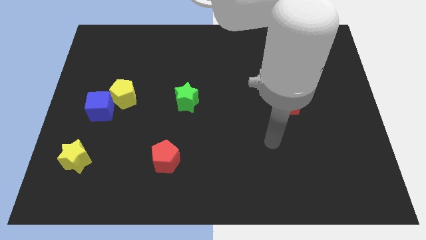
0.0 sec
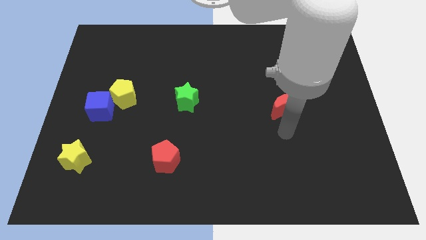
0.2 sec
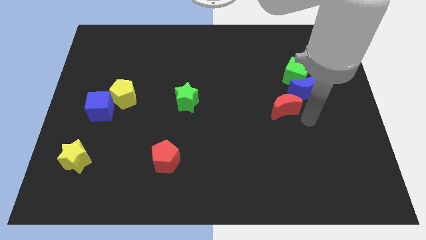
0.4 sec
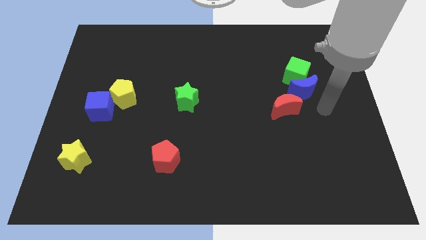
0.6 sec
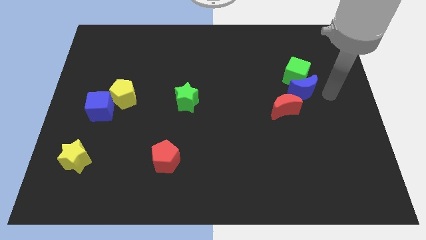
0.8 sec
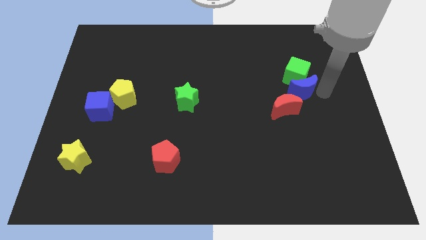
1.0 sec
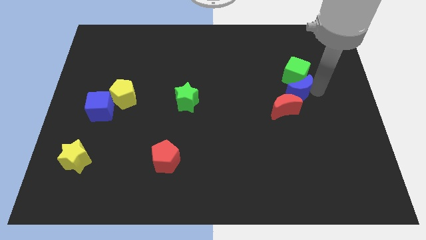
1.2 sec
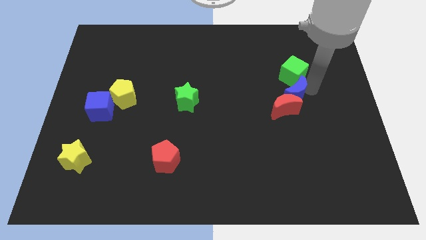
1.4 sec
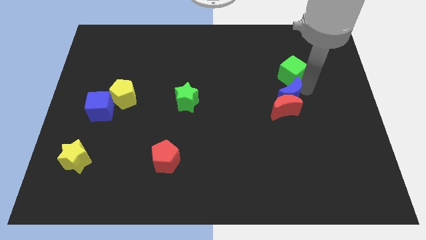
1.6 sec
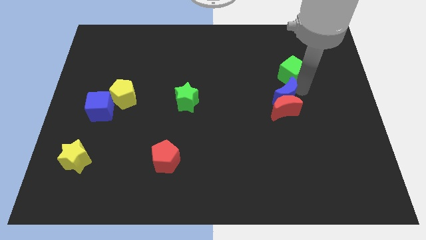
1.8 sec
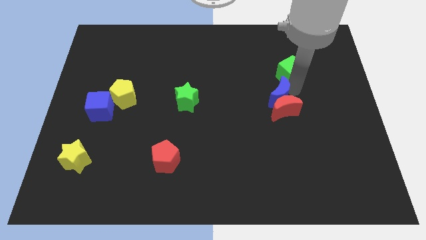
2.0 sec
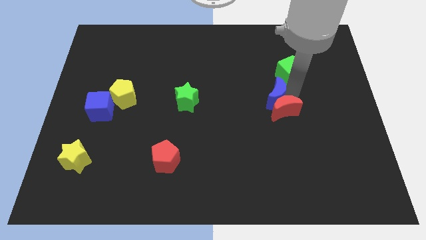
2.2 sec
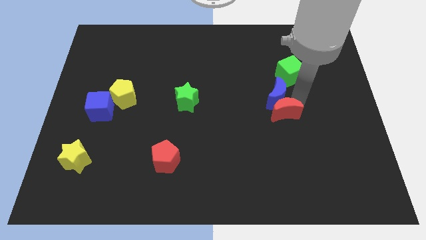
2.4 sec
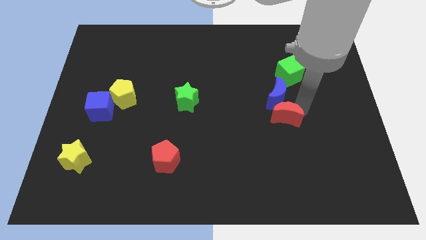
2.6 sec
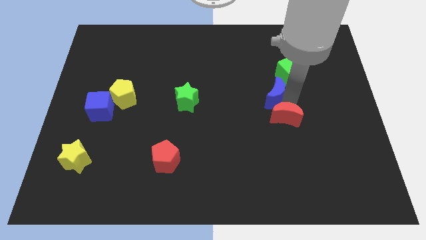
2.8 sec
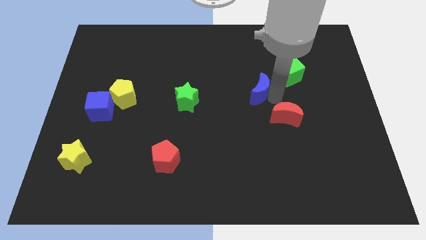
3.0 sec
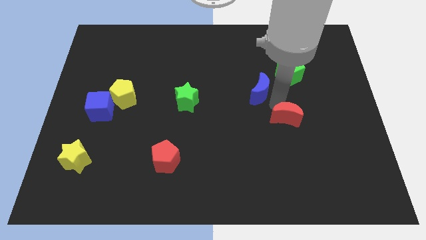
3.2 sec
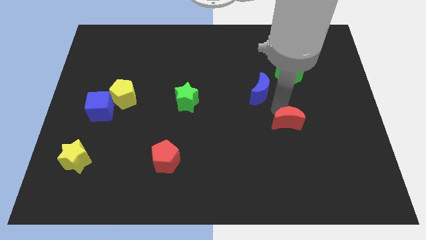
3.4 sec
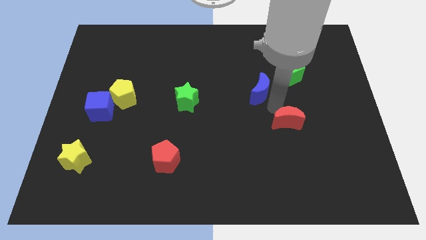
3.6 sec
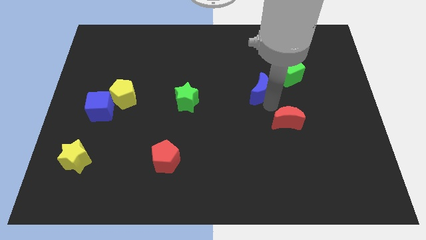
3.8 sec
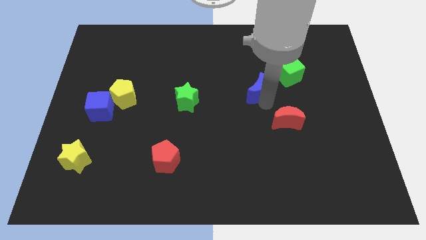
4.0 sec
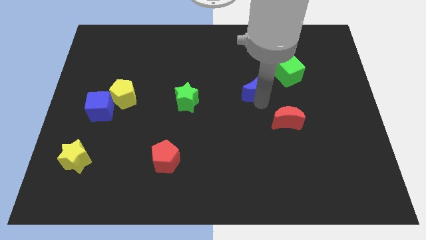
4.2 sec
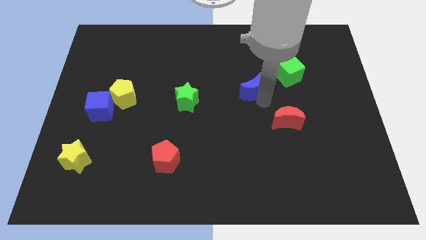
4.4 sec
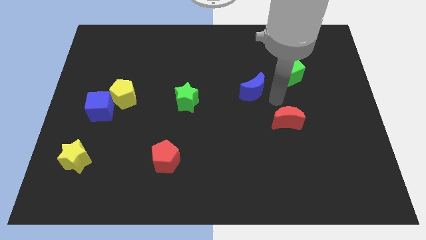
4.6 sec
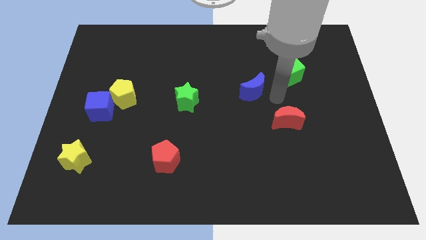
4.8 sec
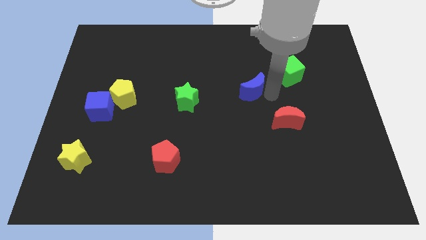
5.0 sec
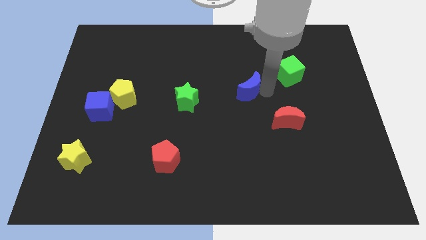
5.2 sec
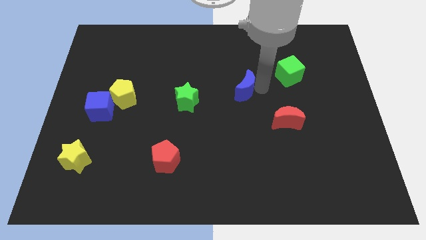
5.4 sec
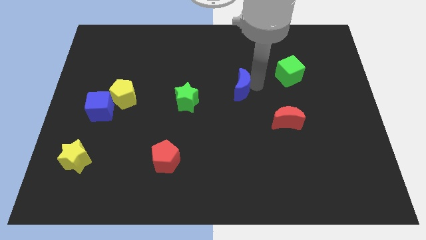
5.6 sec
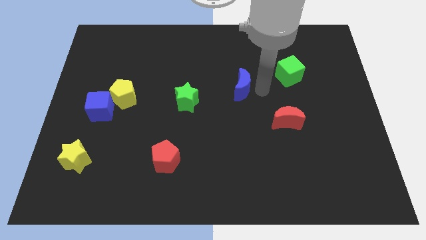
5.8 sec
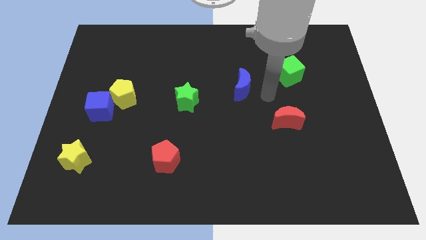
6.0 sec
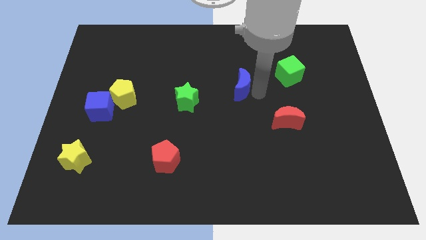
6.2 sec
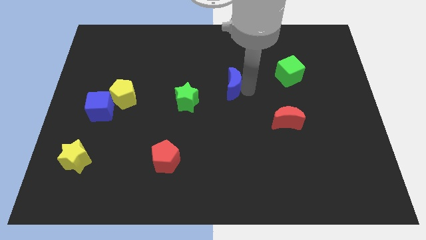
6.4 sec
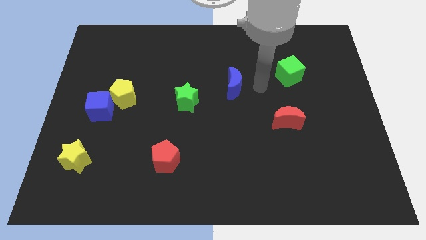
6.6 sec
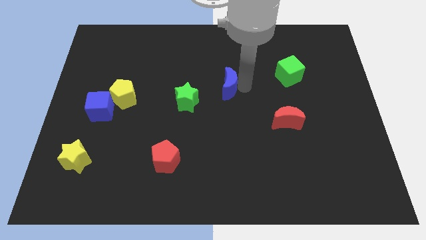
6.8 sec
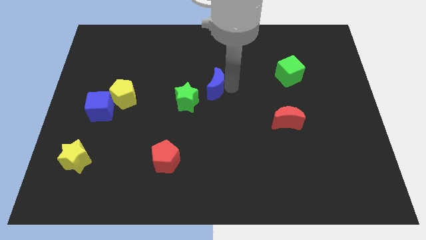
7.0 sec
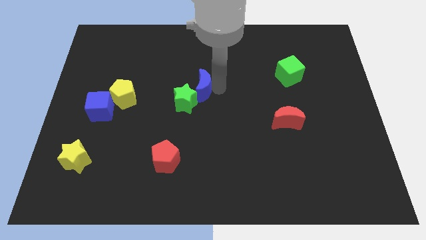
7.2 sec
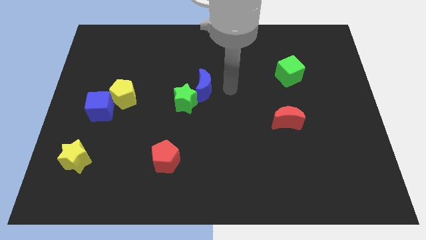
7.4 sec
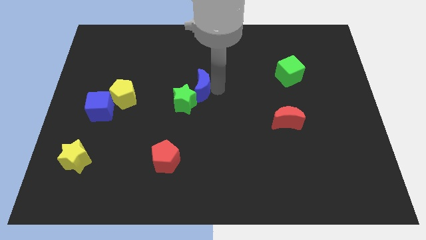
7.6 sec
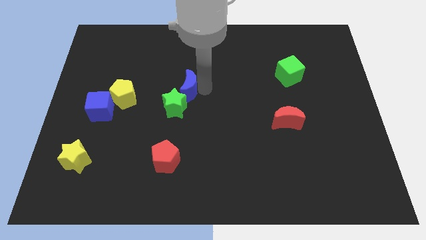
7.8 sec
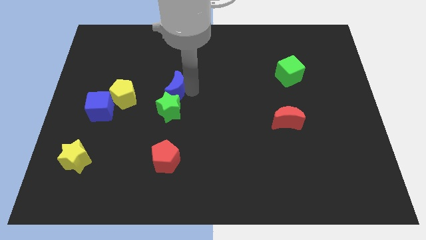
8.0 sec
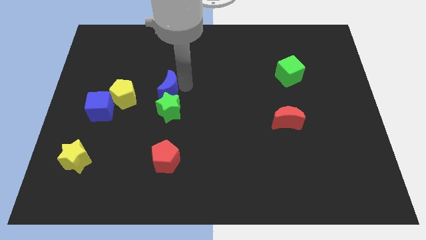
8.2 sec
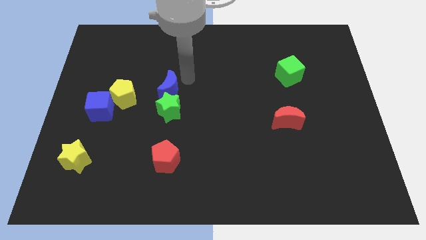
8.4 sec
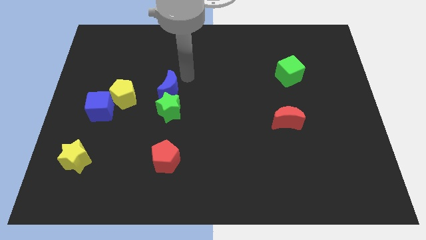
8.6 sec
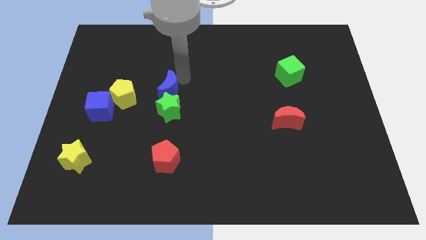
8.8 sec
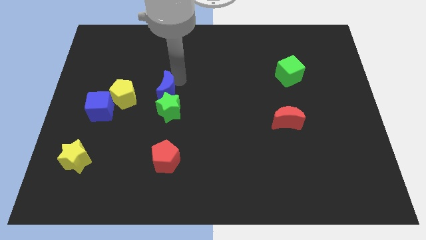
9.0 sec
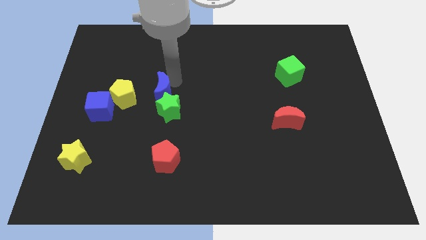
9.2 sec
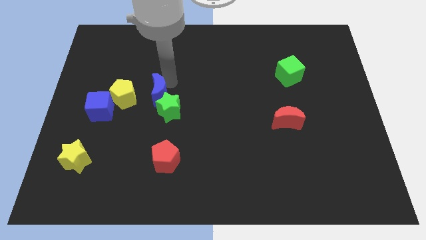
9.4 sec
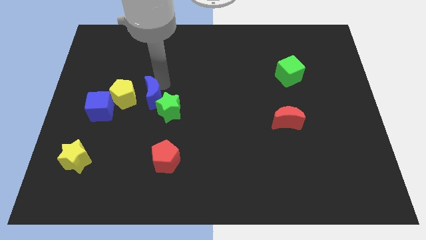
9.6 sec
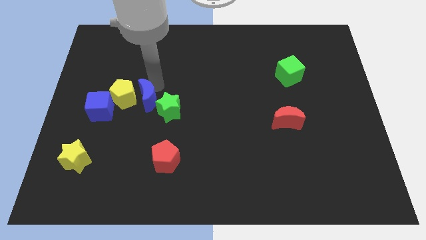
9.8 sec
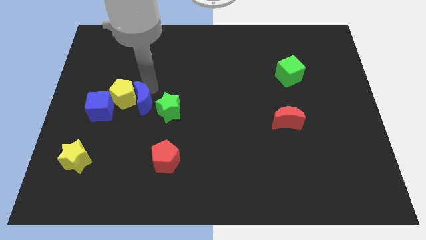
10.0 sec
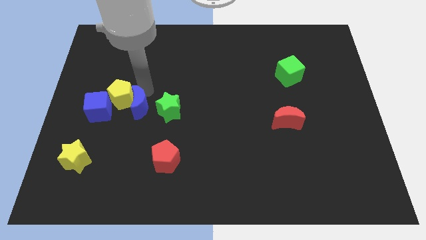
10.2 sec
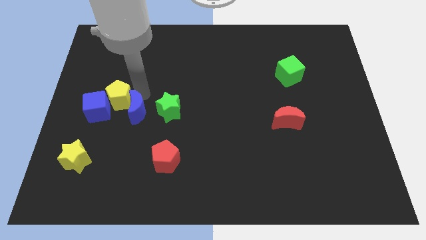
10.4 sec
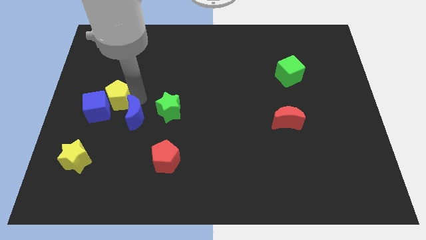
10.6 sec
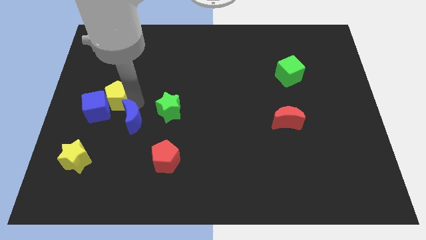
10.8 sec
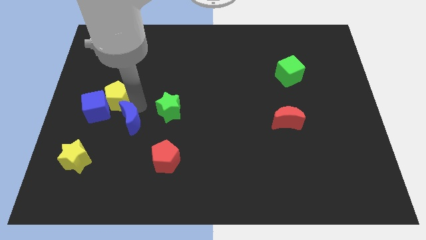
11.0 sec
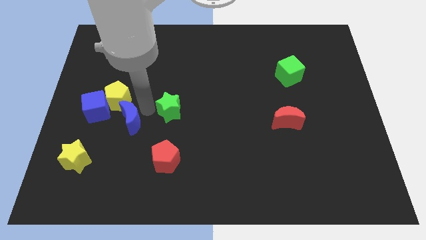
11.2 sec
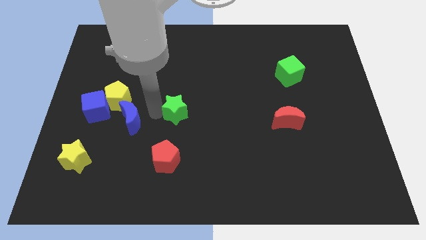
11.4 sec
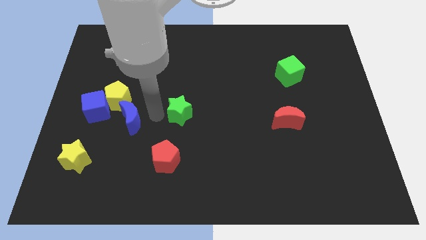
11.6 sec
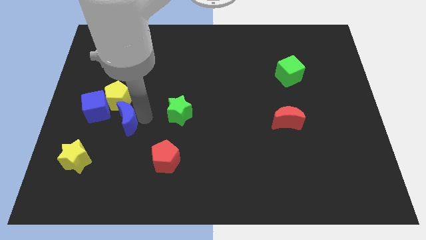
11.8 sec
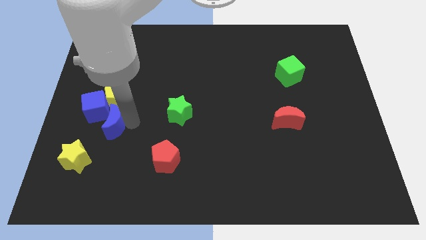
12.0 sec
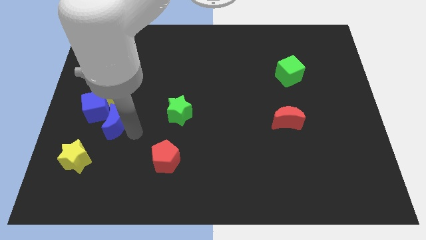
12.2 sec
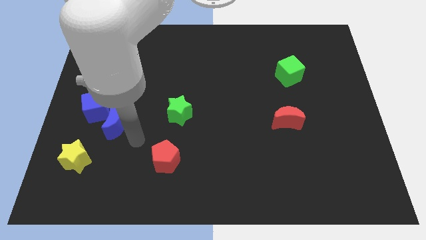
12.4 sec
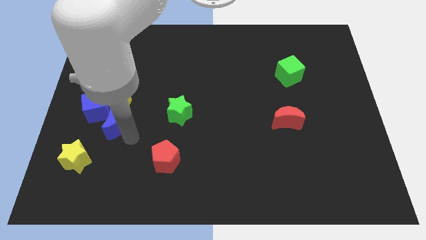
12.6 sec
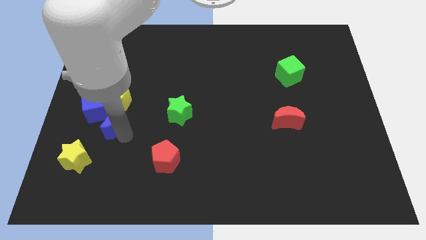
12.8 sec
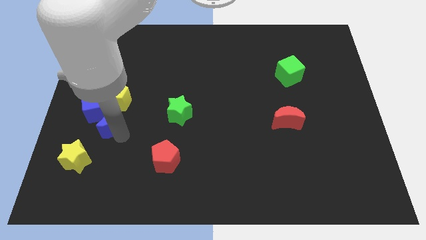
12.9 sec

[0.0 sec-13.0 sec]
move the blue moon close to the blue cube

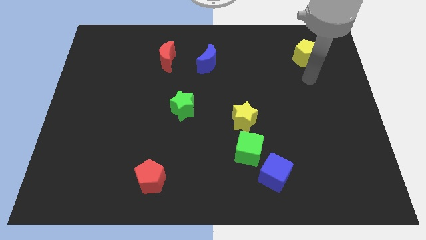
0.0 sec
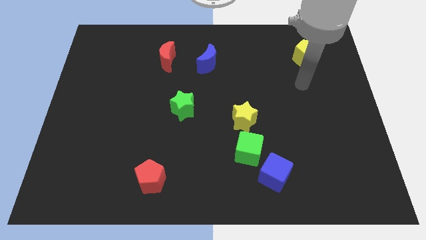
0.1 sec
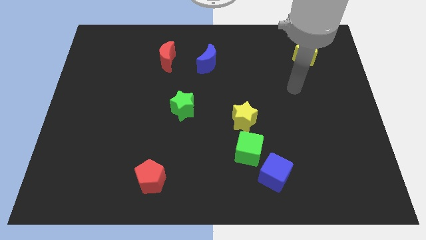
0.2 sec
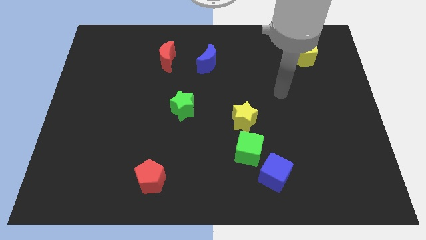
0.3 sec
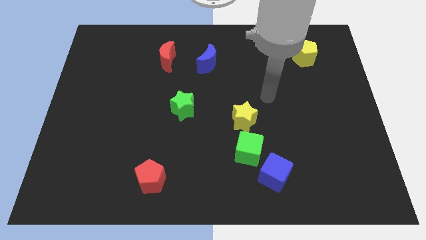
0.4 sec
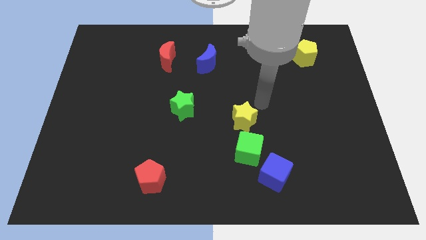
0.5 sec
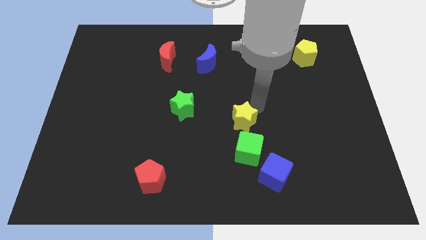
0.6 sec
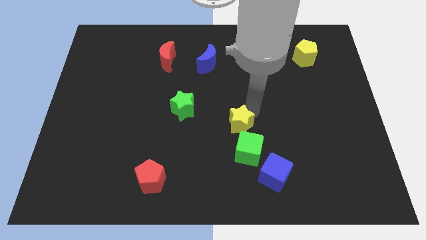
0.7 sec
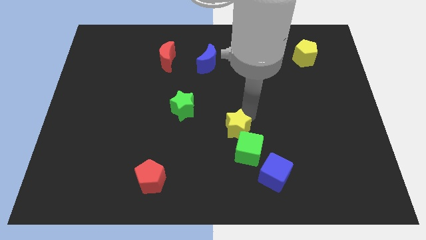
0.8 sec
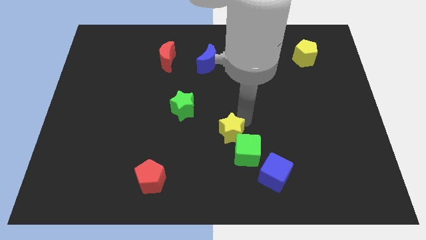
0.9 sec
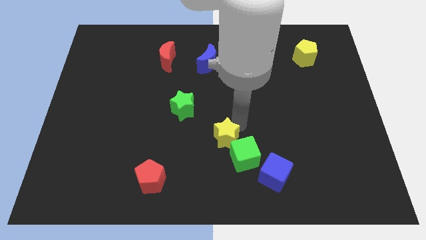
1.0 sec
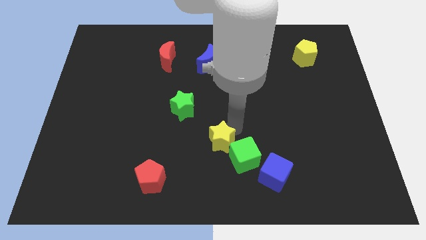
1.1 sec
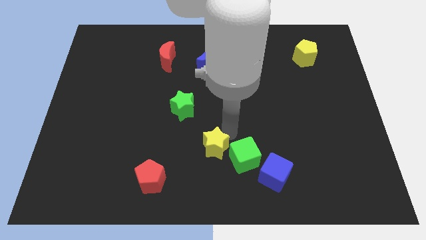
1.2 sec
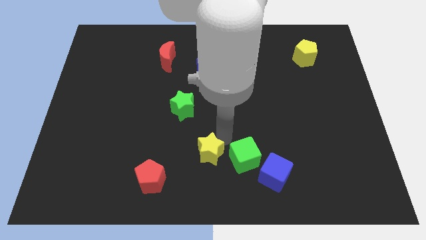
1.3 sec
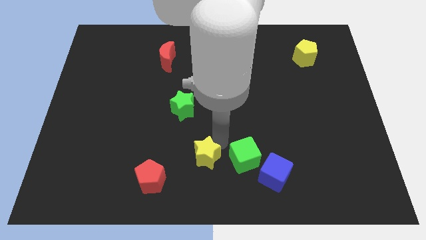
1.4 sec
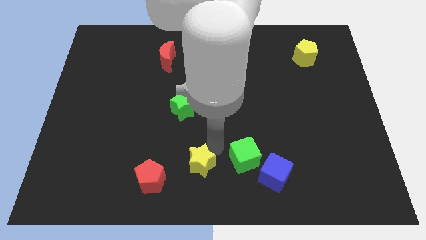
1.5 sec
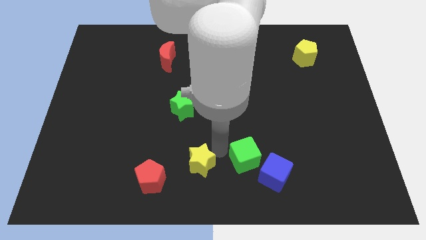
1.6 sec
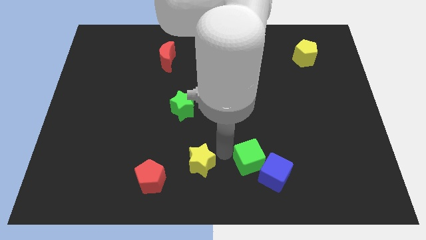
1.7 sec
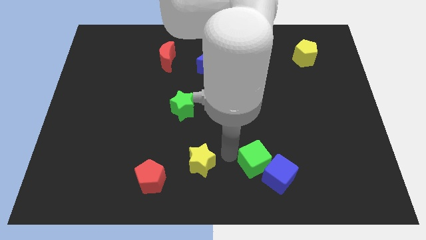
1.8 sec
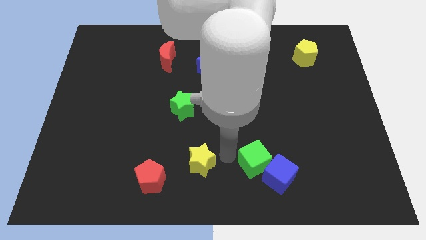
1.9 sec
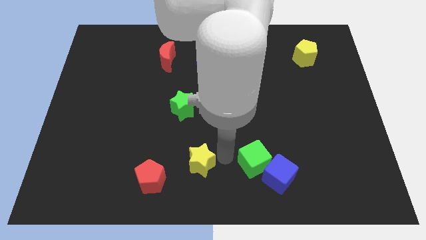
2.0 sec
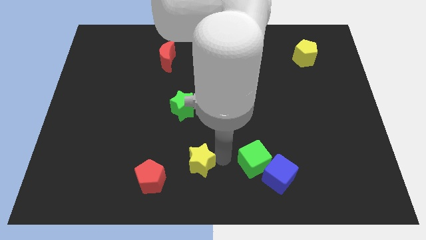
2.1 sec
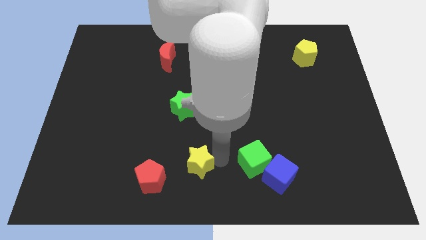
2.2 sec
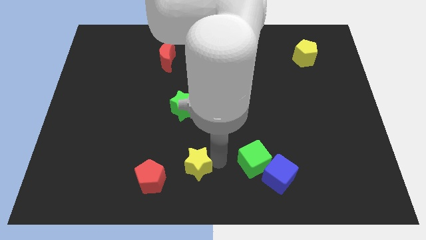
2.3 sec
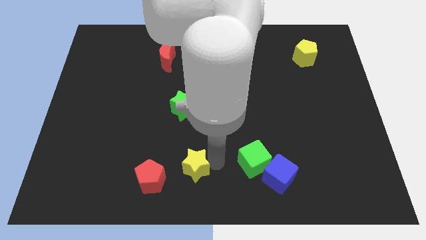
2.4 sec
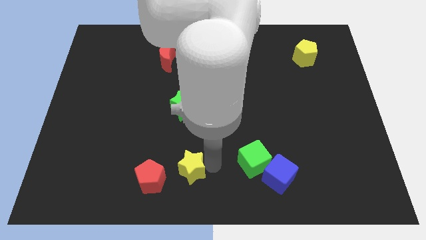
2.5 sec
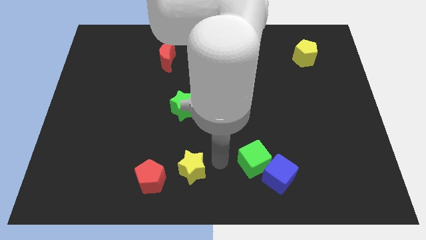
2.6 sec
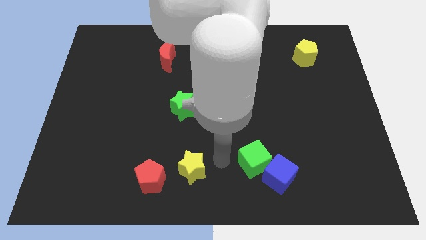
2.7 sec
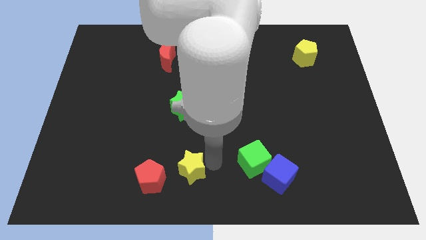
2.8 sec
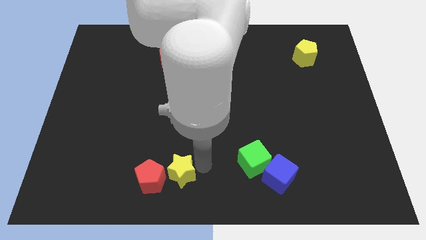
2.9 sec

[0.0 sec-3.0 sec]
push the yellow star towards the red pentagon
